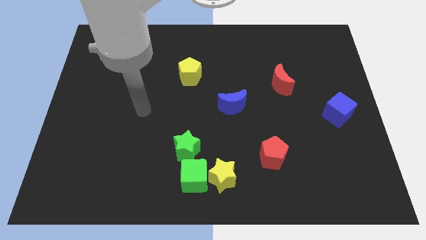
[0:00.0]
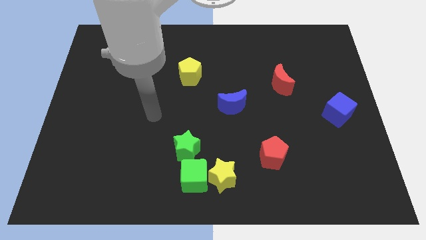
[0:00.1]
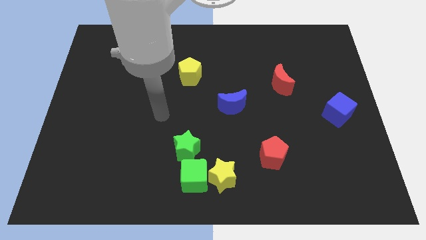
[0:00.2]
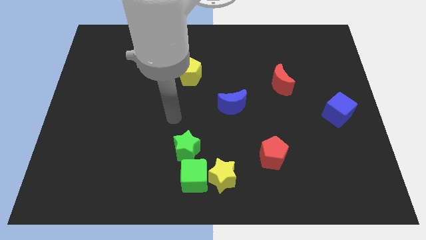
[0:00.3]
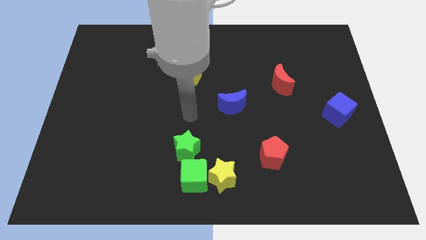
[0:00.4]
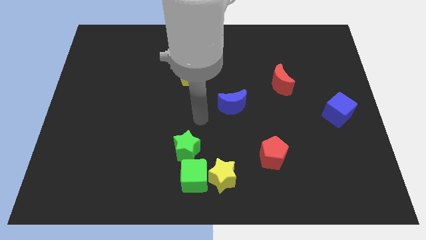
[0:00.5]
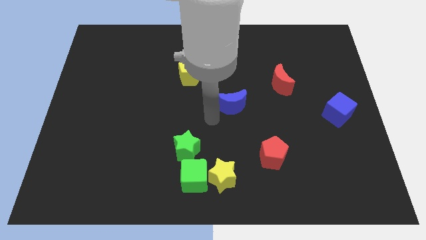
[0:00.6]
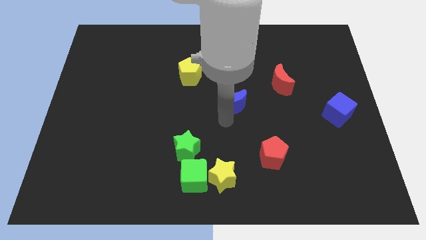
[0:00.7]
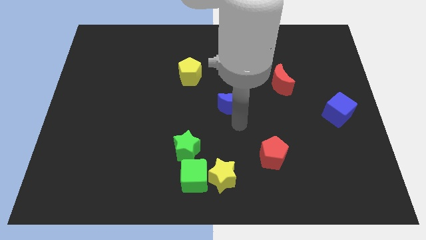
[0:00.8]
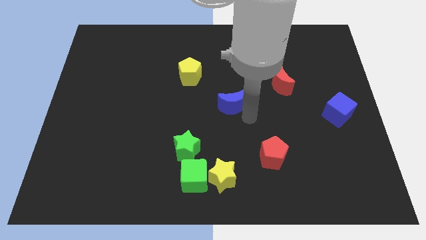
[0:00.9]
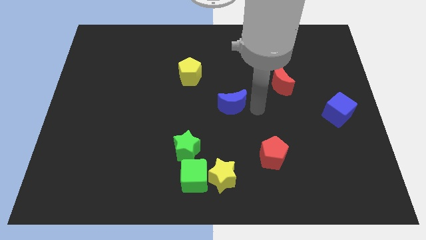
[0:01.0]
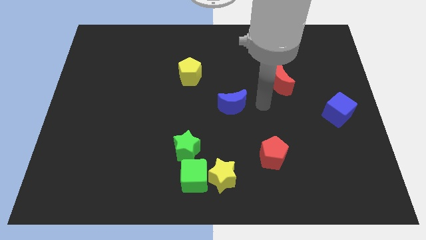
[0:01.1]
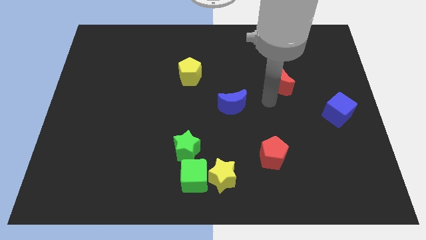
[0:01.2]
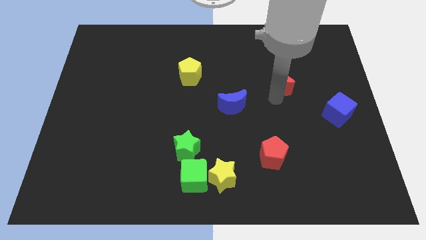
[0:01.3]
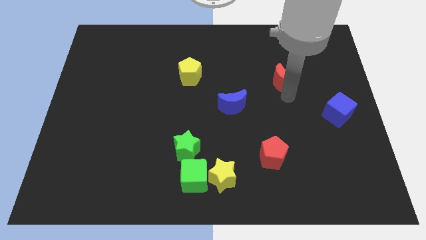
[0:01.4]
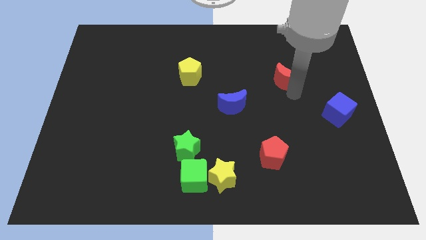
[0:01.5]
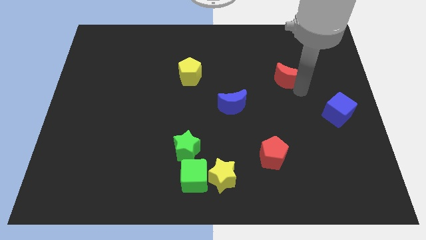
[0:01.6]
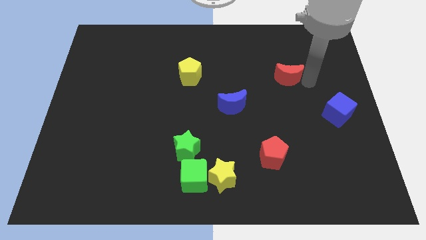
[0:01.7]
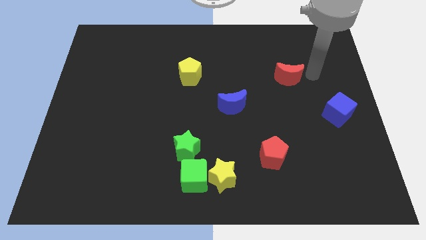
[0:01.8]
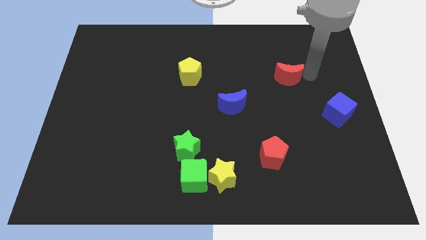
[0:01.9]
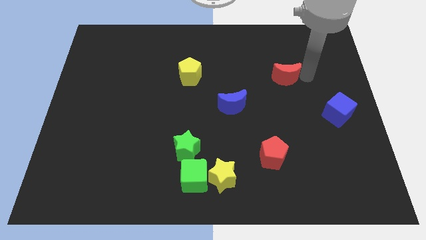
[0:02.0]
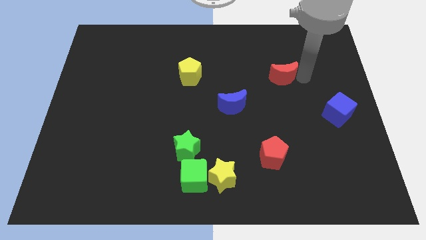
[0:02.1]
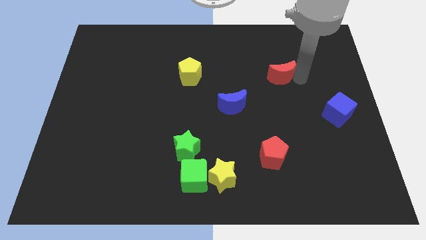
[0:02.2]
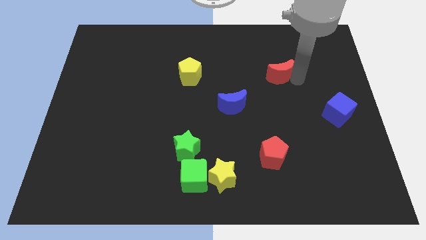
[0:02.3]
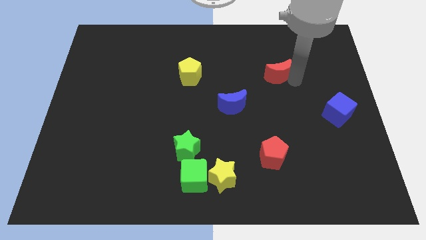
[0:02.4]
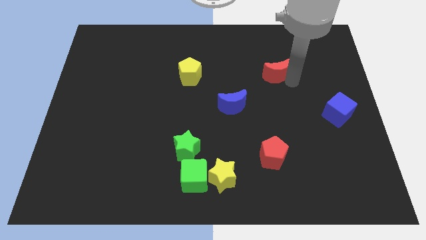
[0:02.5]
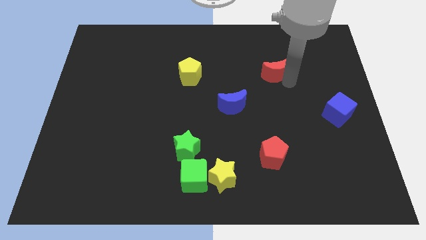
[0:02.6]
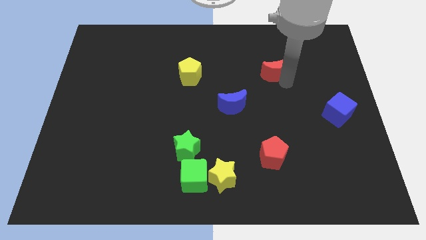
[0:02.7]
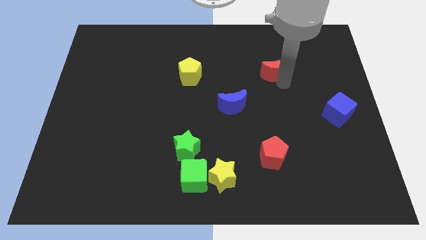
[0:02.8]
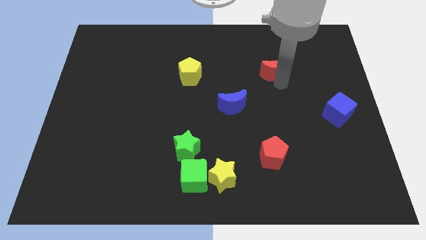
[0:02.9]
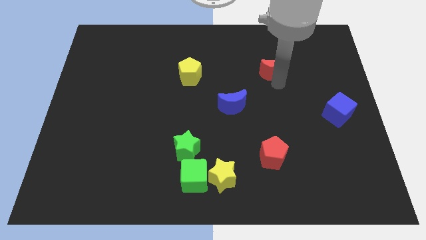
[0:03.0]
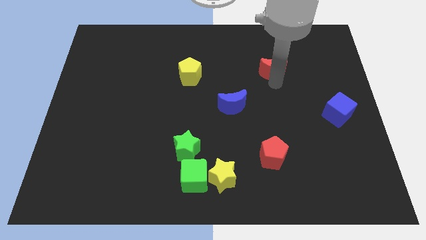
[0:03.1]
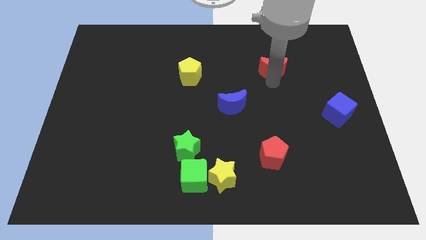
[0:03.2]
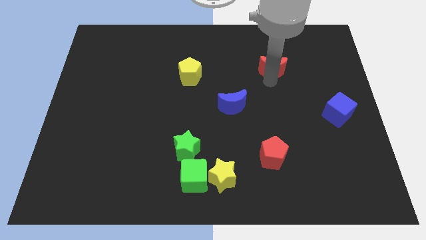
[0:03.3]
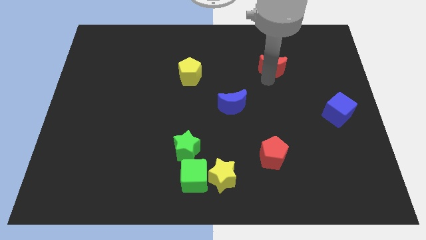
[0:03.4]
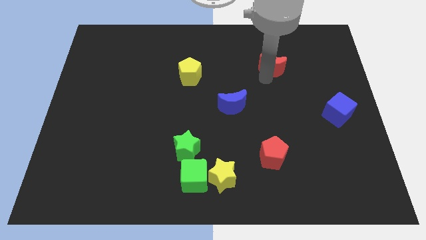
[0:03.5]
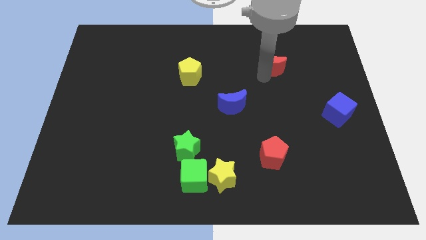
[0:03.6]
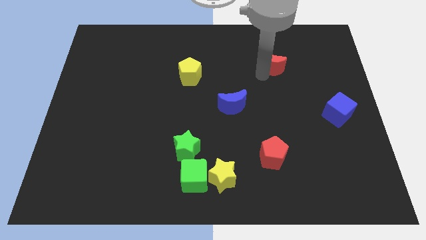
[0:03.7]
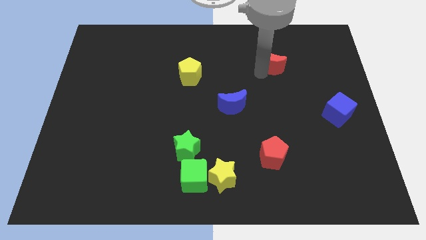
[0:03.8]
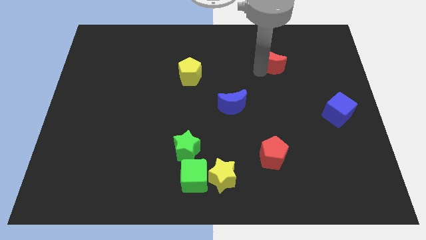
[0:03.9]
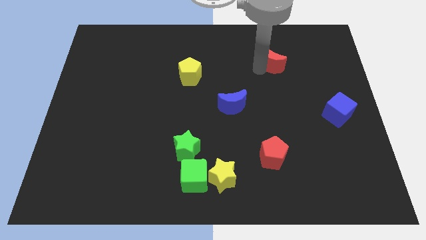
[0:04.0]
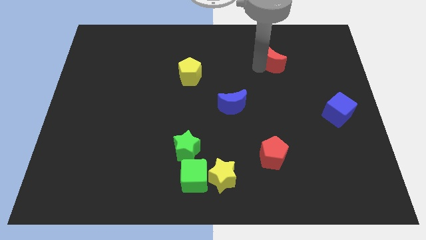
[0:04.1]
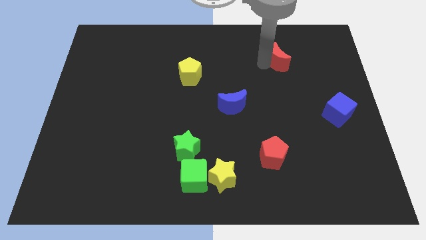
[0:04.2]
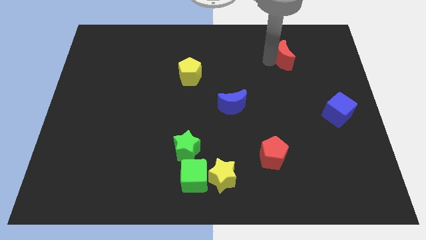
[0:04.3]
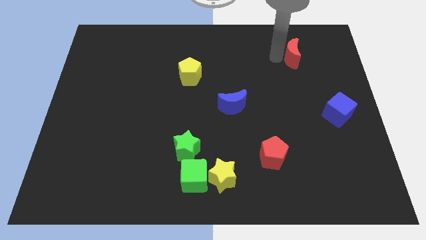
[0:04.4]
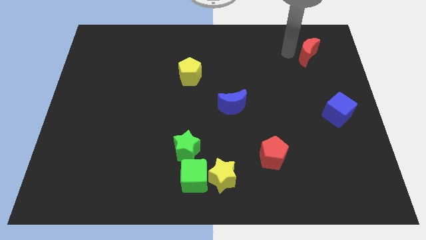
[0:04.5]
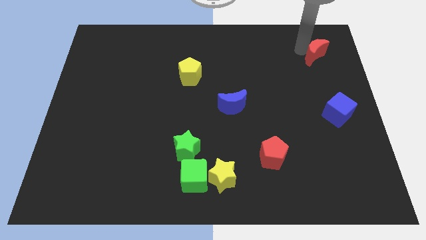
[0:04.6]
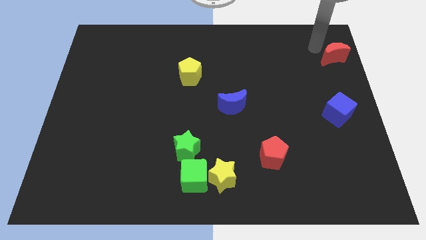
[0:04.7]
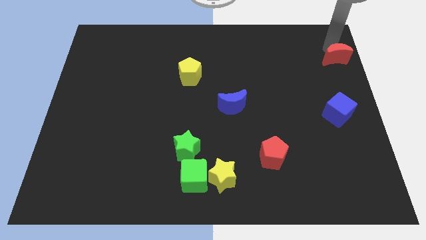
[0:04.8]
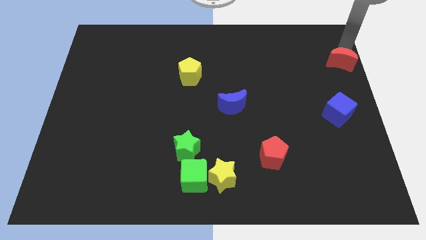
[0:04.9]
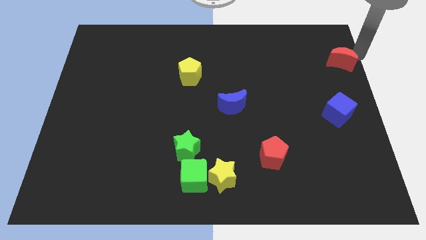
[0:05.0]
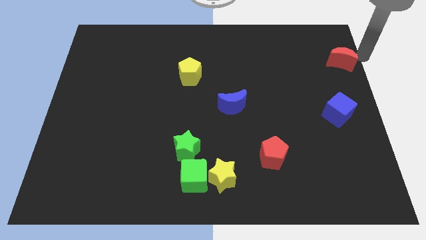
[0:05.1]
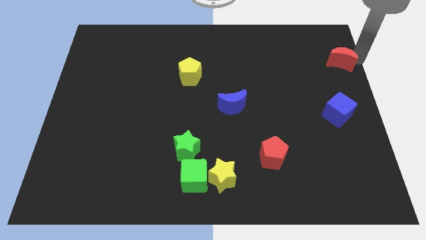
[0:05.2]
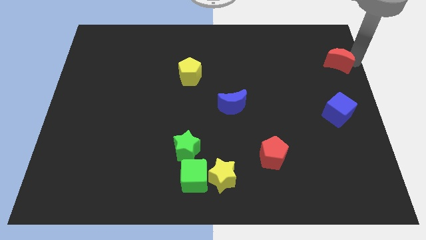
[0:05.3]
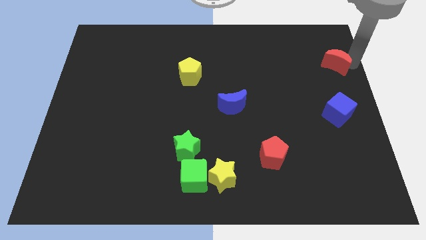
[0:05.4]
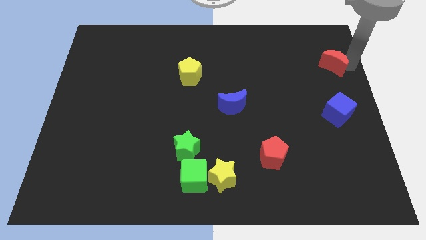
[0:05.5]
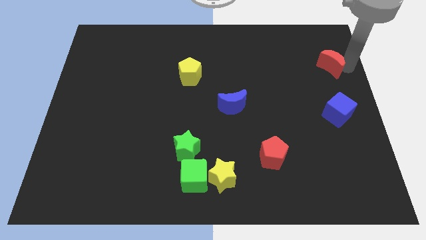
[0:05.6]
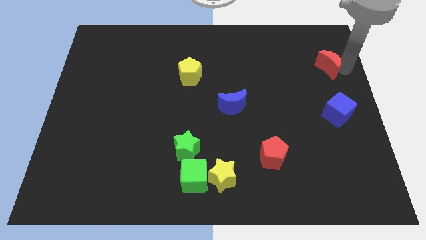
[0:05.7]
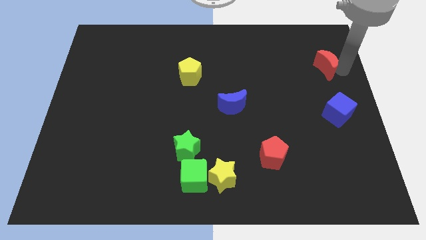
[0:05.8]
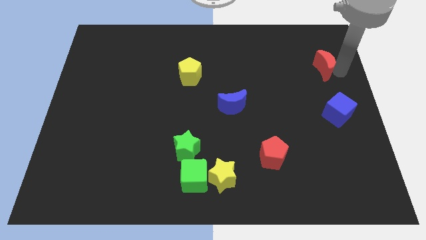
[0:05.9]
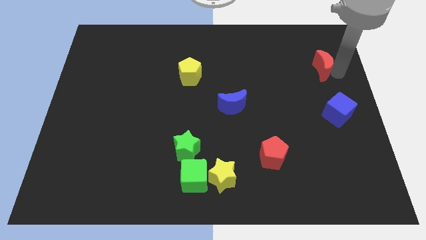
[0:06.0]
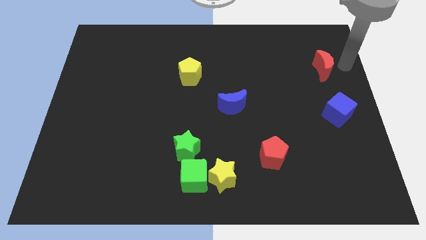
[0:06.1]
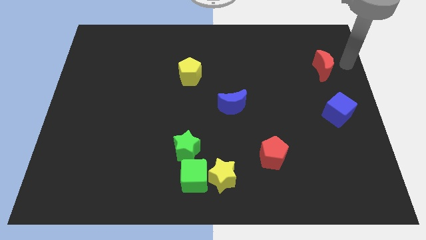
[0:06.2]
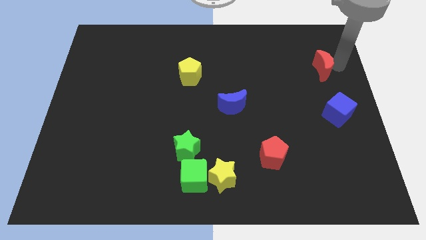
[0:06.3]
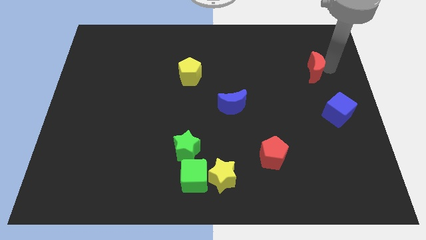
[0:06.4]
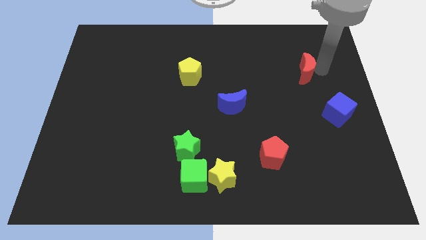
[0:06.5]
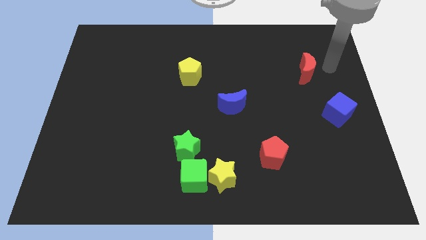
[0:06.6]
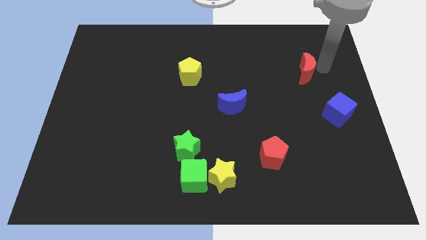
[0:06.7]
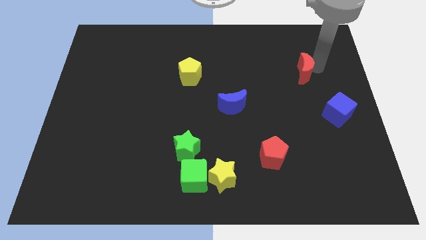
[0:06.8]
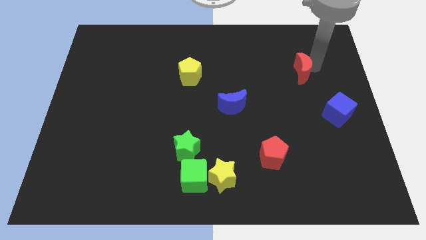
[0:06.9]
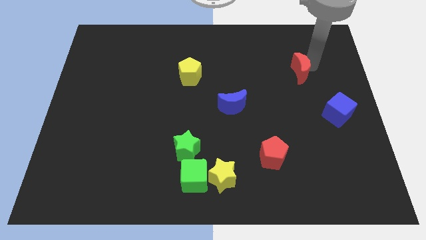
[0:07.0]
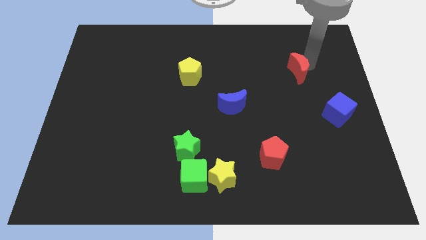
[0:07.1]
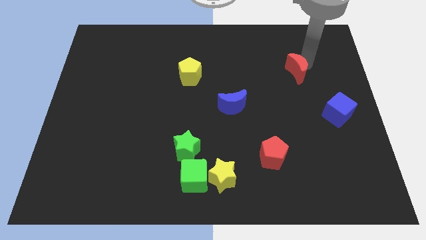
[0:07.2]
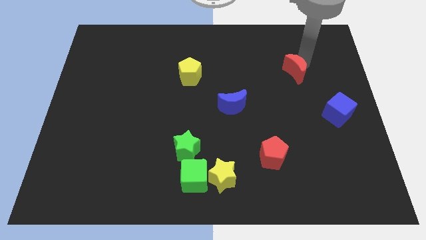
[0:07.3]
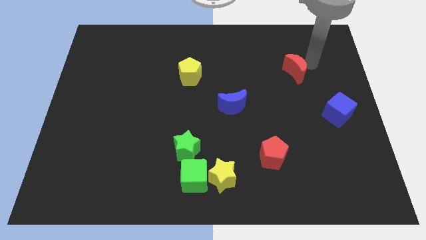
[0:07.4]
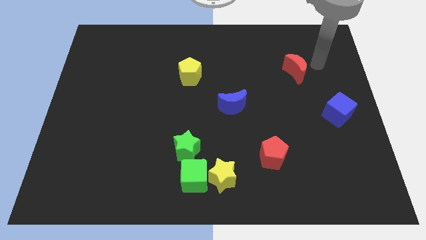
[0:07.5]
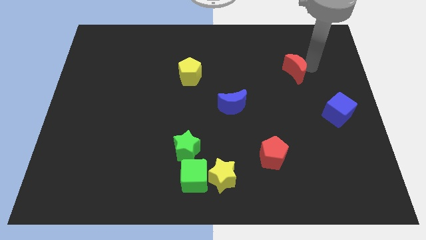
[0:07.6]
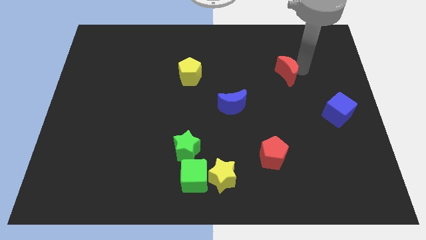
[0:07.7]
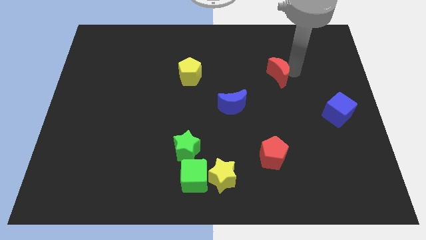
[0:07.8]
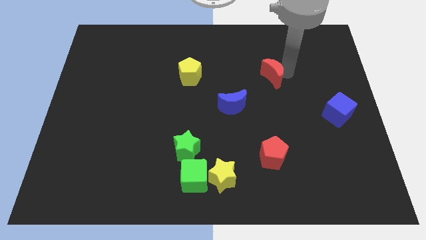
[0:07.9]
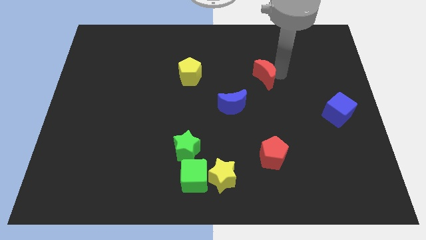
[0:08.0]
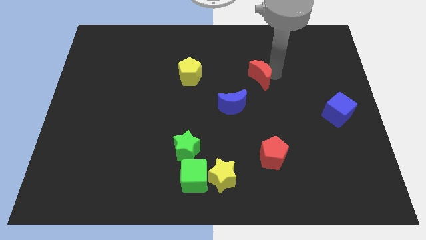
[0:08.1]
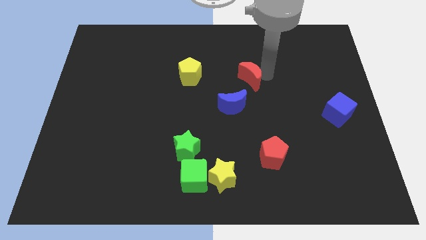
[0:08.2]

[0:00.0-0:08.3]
slide the red moon to the middle
